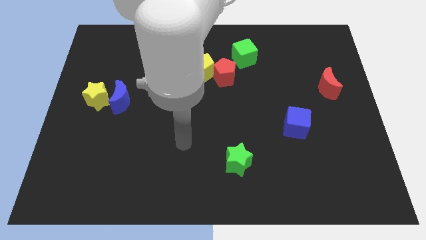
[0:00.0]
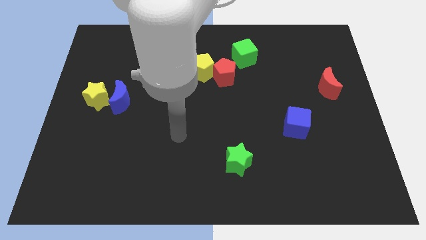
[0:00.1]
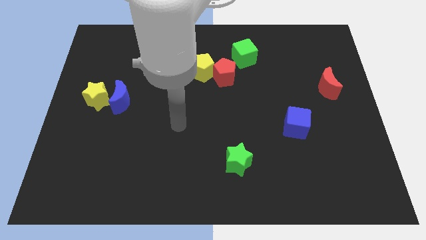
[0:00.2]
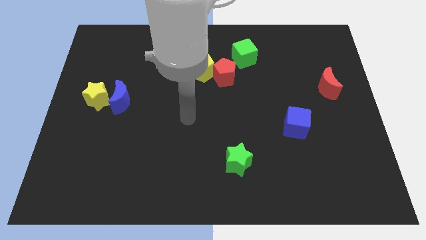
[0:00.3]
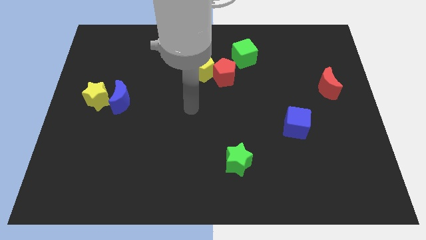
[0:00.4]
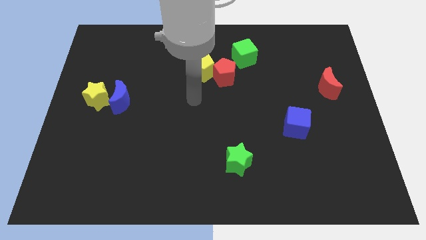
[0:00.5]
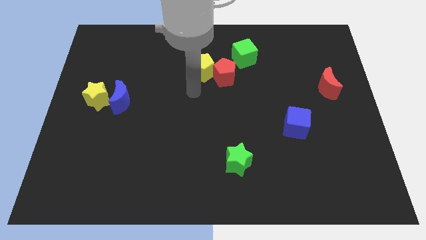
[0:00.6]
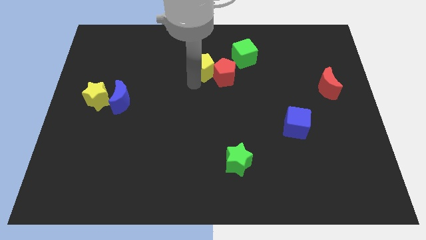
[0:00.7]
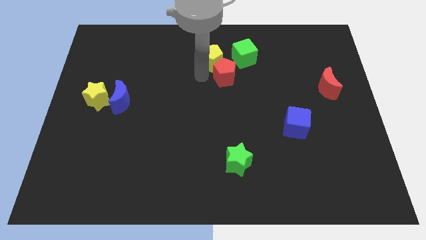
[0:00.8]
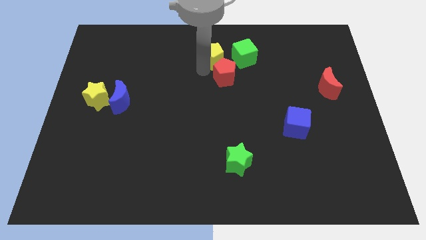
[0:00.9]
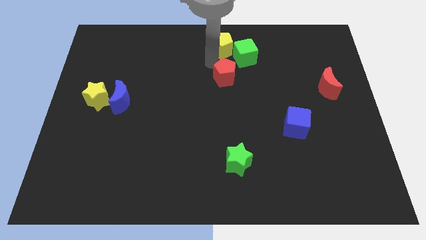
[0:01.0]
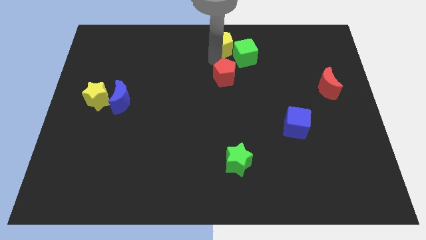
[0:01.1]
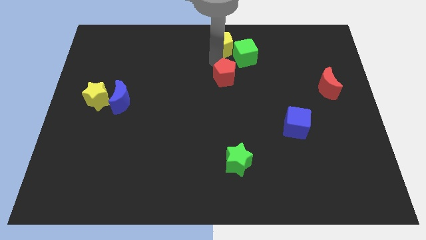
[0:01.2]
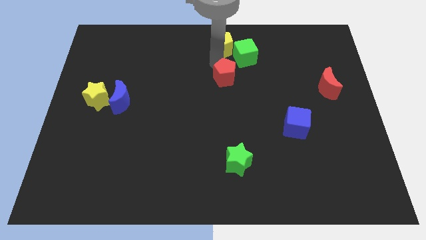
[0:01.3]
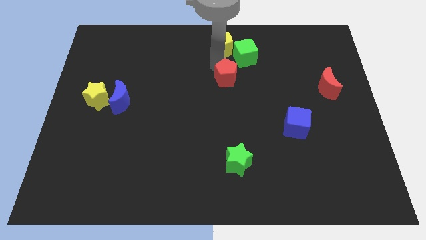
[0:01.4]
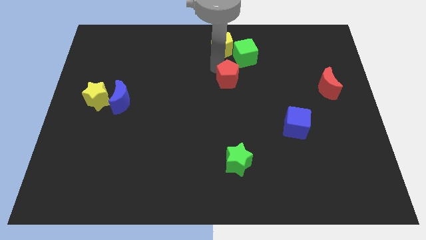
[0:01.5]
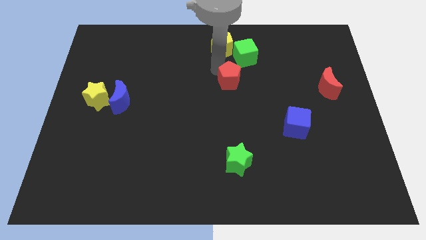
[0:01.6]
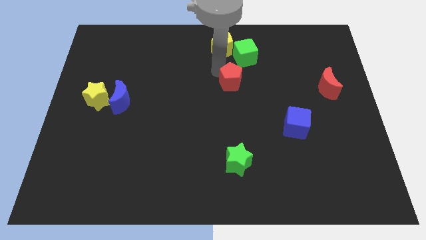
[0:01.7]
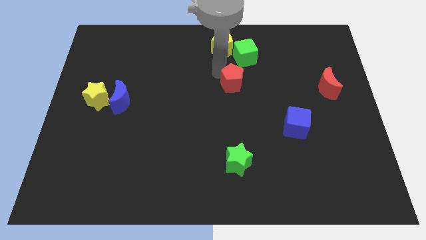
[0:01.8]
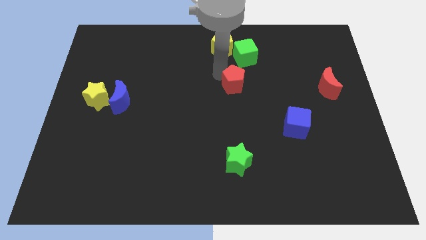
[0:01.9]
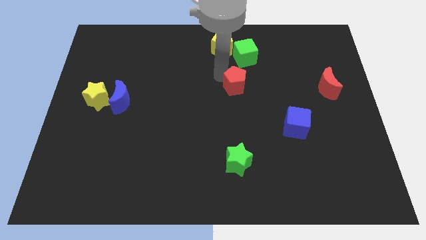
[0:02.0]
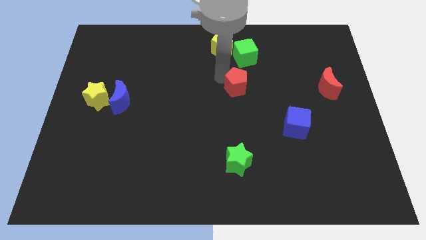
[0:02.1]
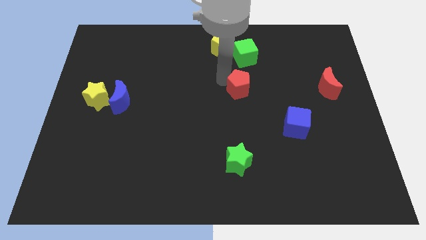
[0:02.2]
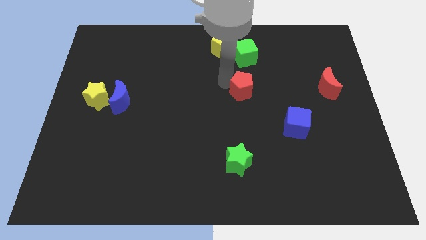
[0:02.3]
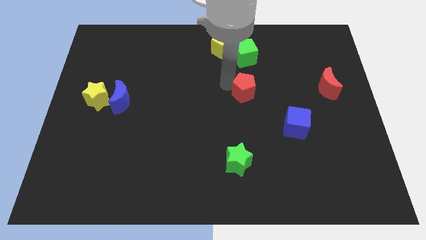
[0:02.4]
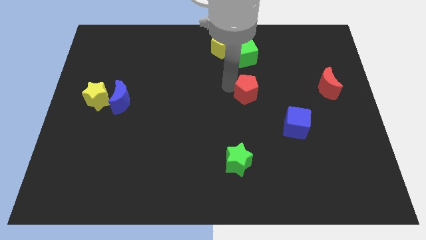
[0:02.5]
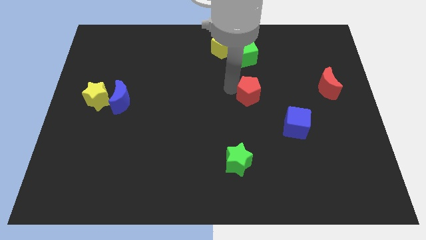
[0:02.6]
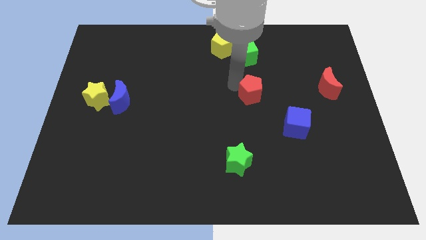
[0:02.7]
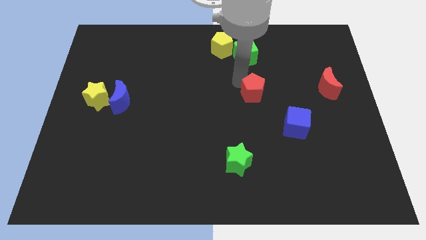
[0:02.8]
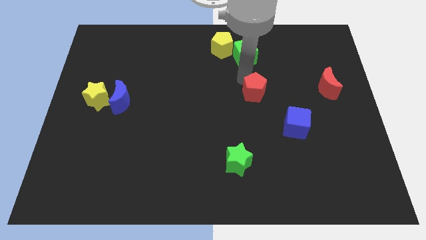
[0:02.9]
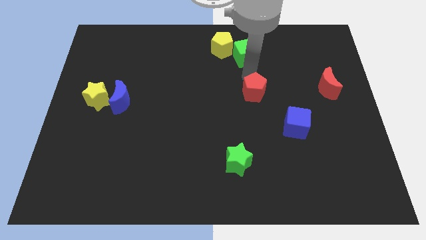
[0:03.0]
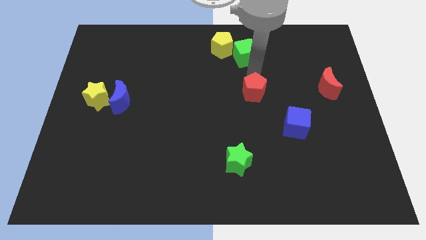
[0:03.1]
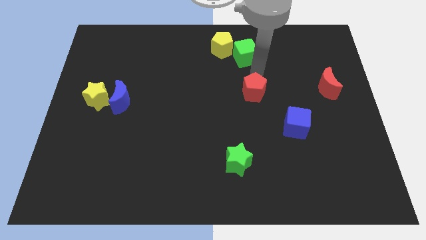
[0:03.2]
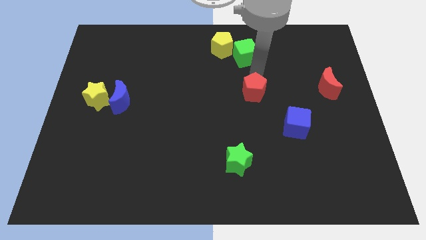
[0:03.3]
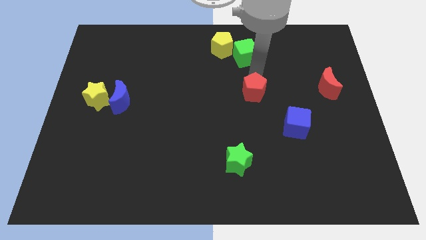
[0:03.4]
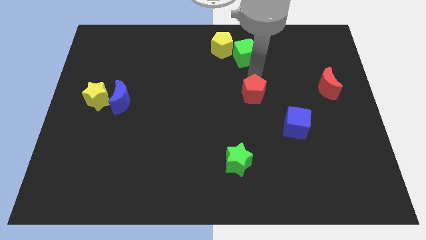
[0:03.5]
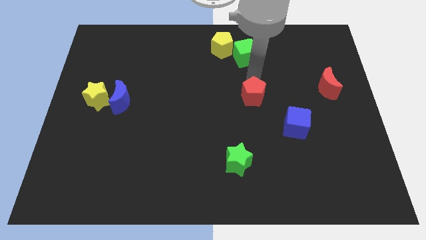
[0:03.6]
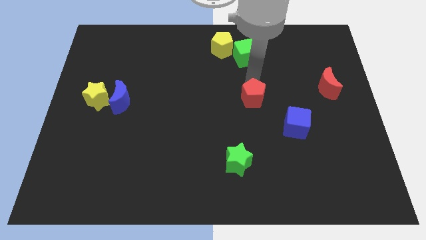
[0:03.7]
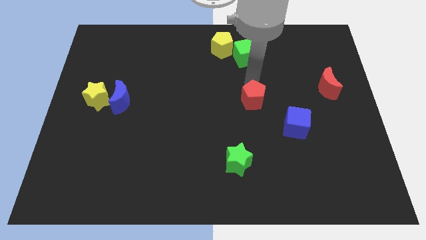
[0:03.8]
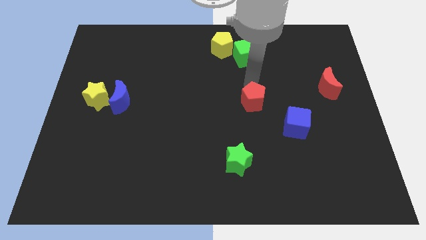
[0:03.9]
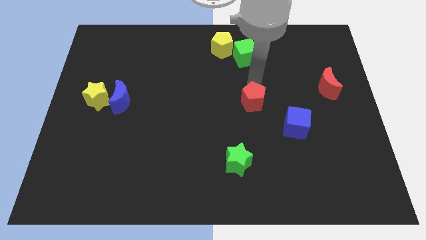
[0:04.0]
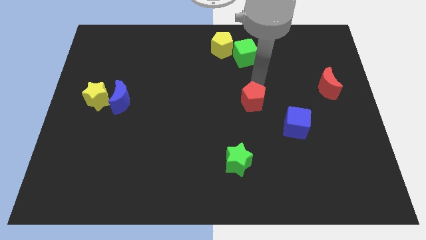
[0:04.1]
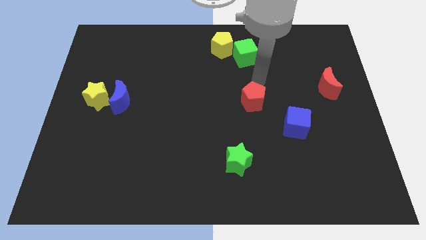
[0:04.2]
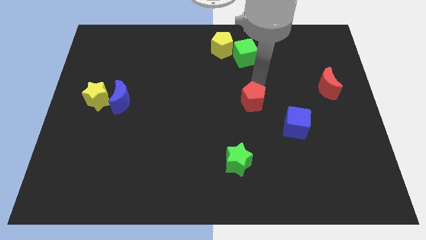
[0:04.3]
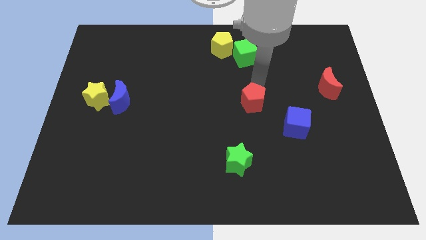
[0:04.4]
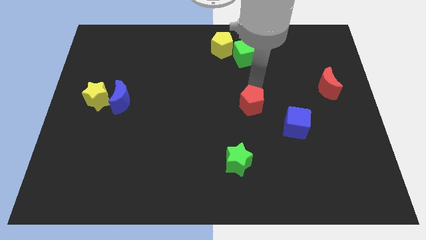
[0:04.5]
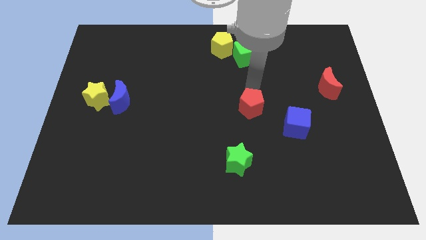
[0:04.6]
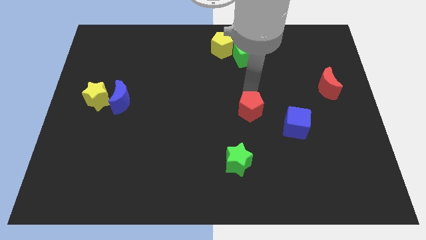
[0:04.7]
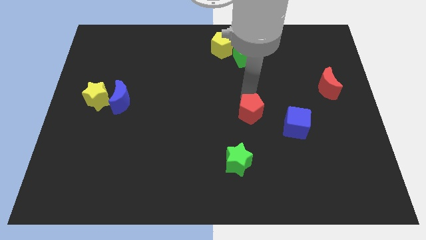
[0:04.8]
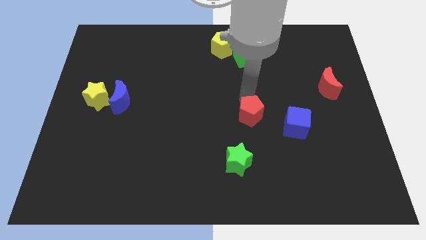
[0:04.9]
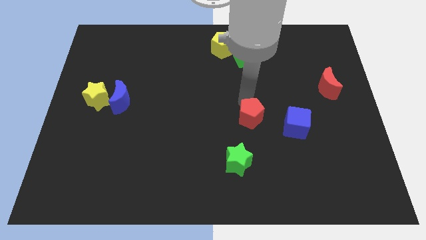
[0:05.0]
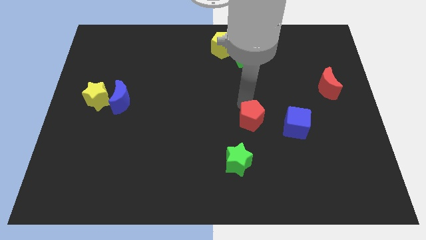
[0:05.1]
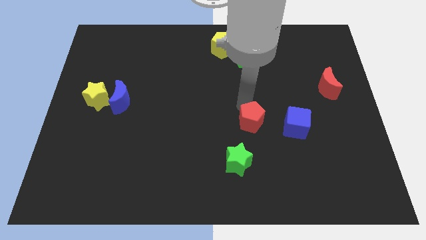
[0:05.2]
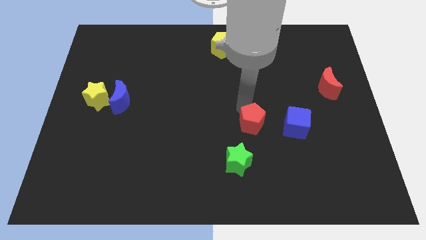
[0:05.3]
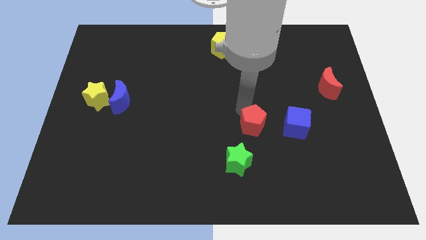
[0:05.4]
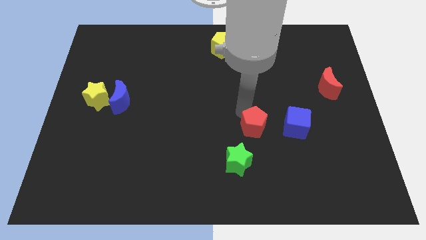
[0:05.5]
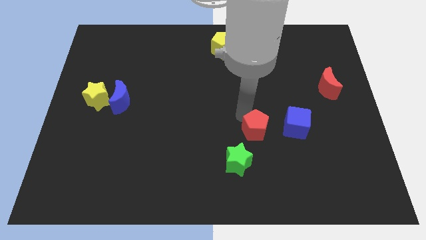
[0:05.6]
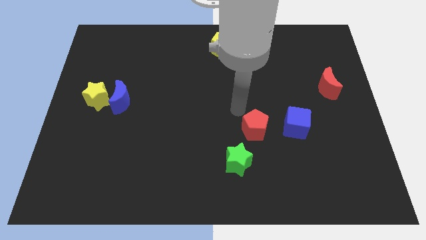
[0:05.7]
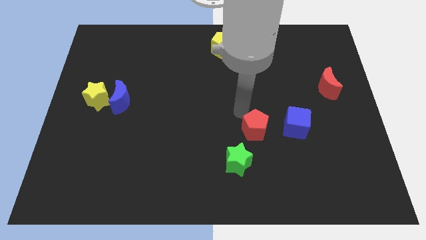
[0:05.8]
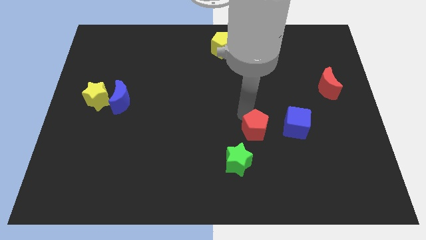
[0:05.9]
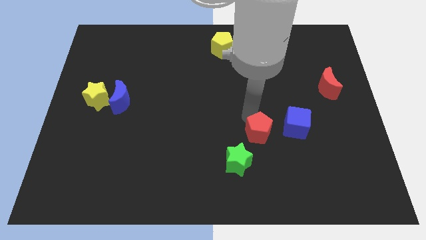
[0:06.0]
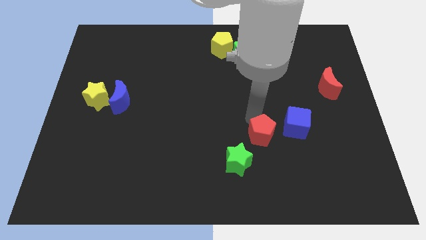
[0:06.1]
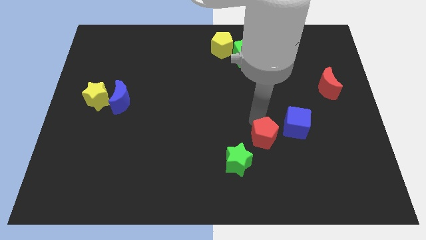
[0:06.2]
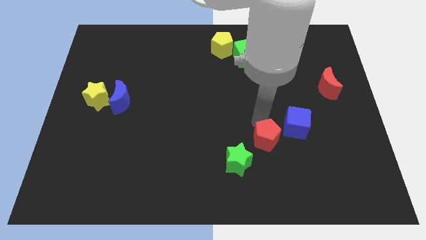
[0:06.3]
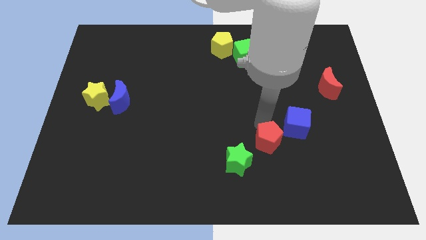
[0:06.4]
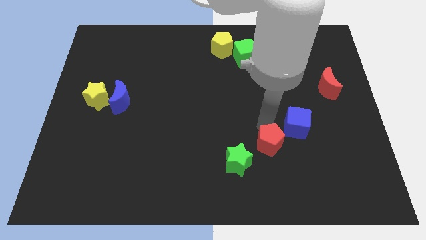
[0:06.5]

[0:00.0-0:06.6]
put the red pentagon right of the green star

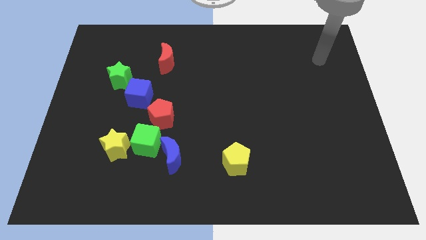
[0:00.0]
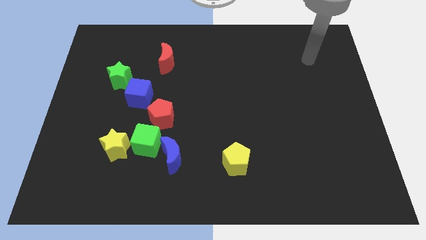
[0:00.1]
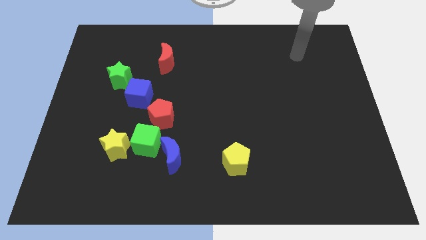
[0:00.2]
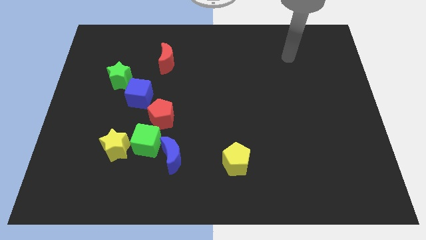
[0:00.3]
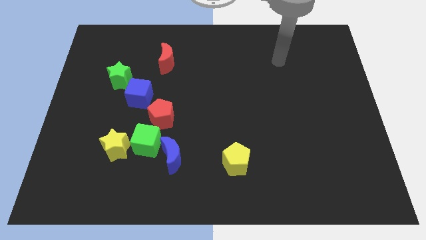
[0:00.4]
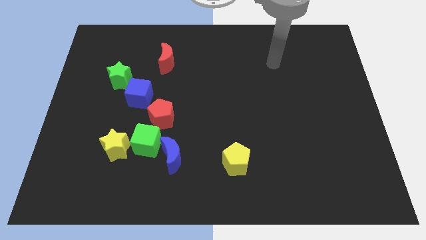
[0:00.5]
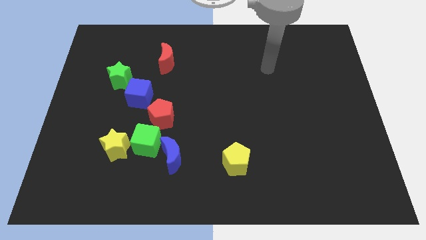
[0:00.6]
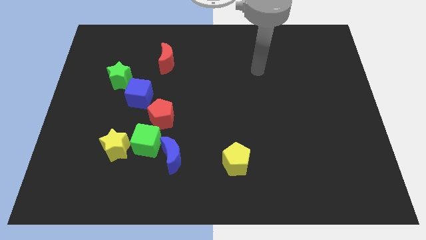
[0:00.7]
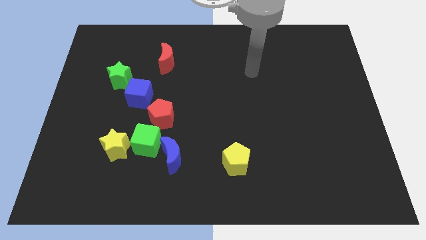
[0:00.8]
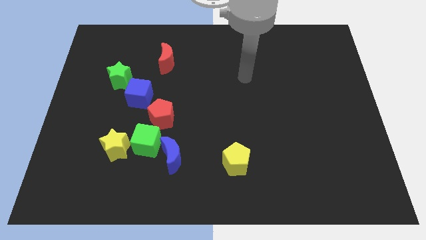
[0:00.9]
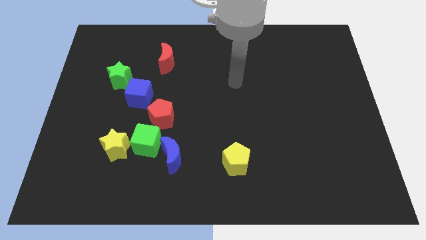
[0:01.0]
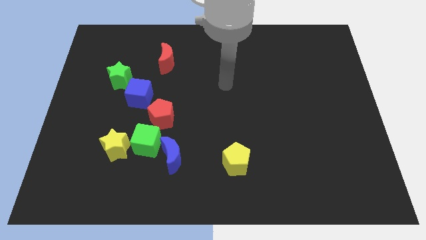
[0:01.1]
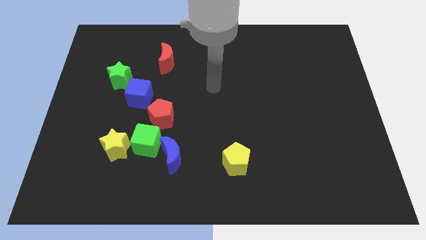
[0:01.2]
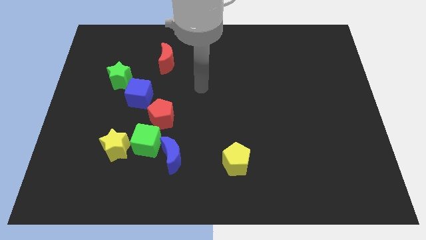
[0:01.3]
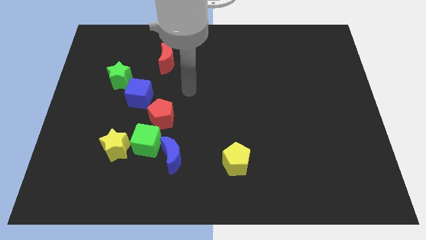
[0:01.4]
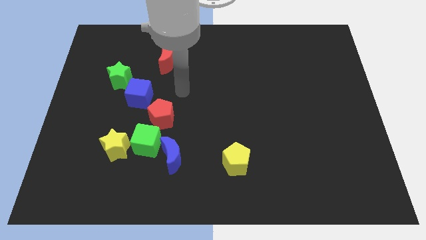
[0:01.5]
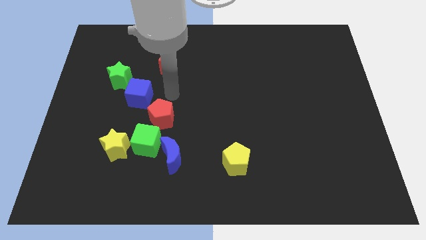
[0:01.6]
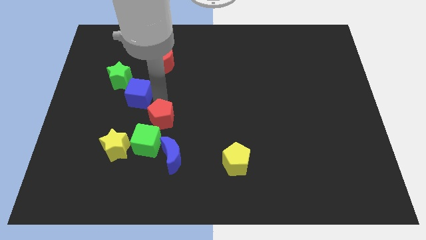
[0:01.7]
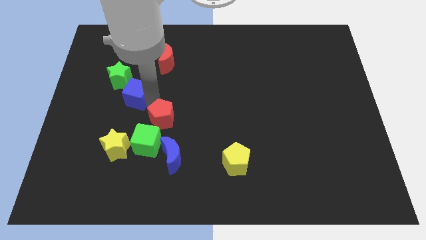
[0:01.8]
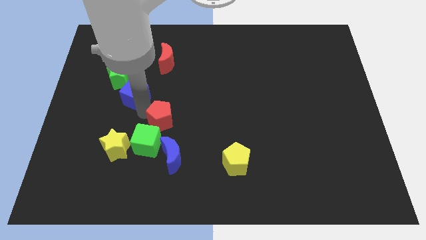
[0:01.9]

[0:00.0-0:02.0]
put the green star to the top of the blue cube
